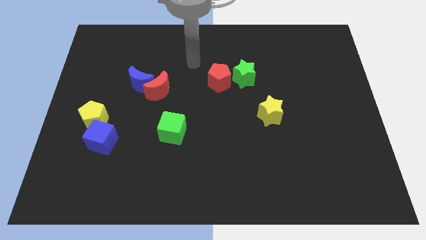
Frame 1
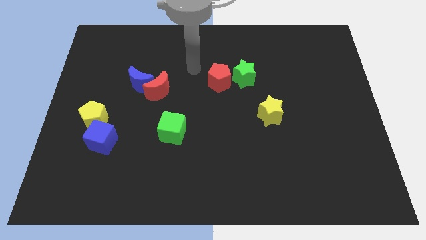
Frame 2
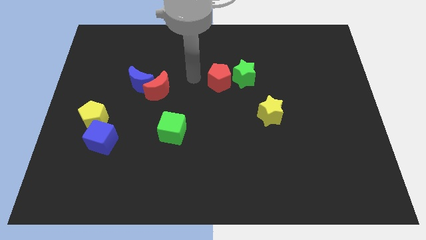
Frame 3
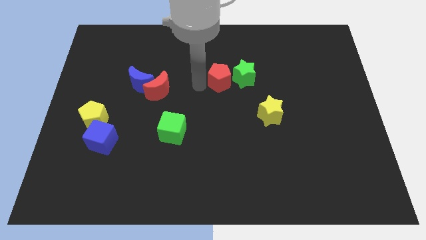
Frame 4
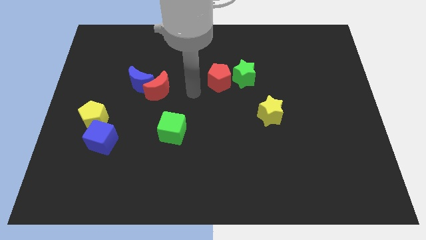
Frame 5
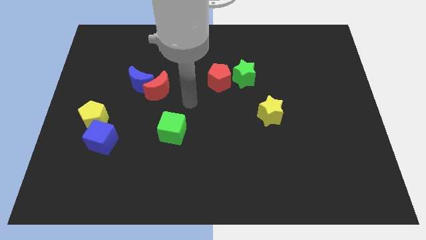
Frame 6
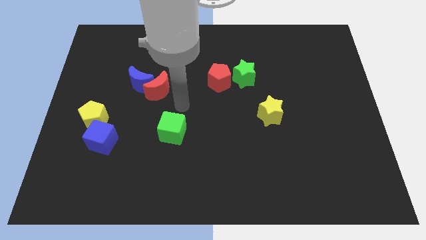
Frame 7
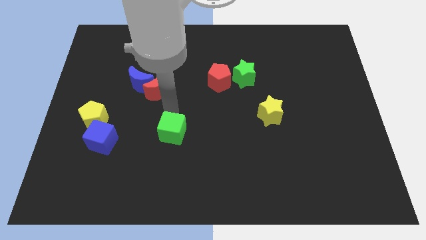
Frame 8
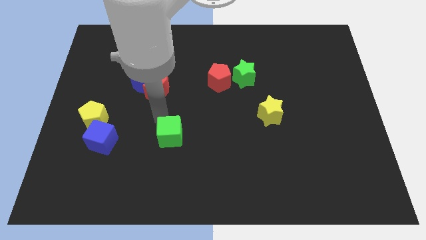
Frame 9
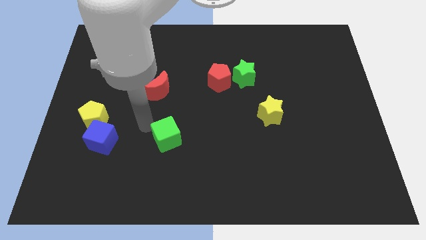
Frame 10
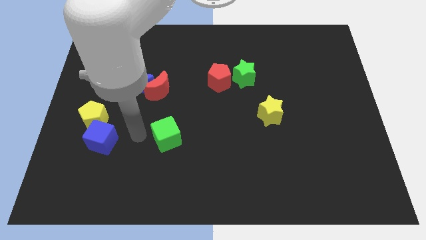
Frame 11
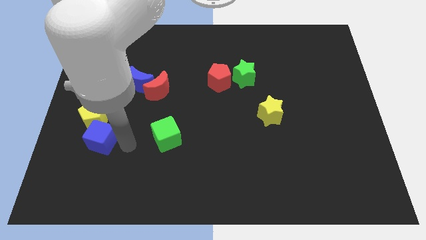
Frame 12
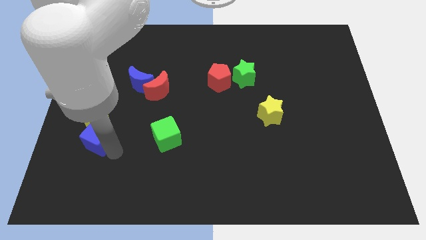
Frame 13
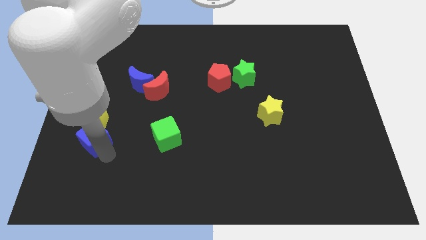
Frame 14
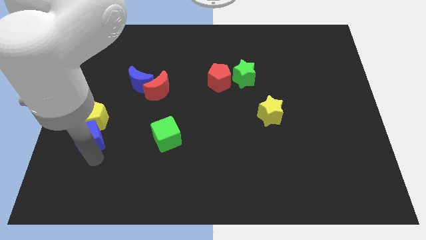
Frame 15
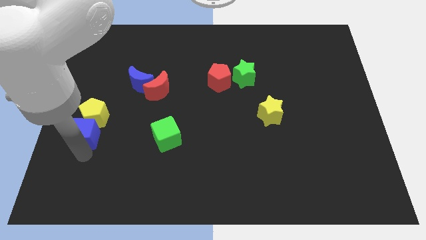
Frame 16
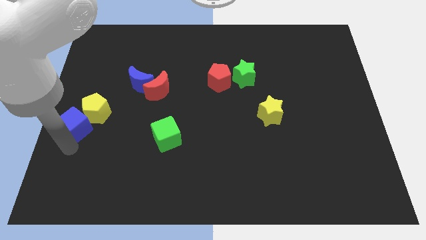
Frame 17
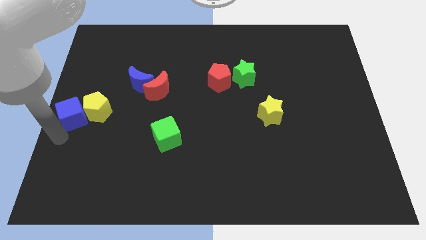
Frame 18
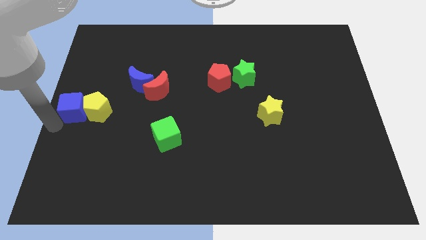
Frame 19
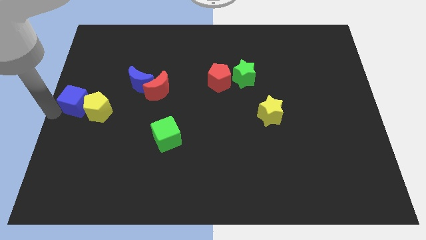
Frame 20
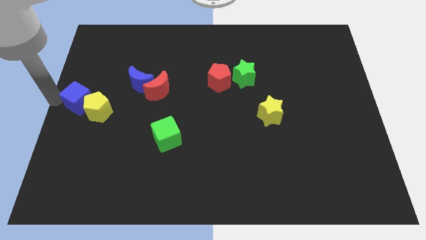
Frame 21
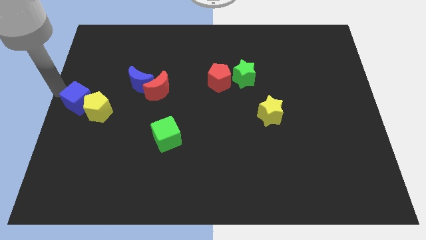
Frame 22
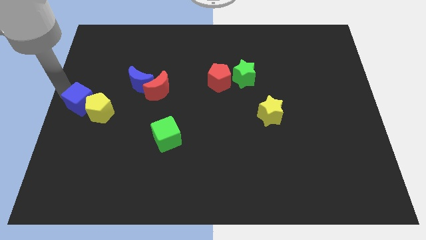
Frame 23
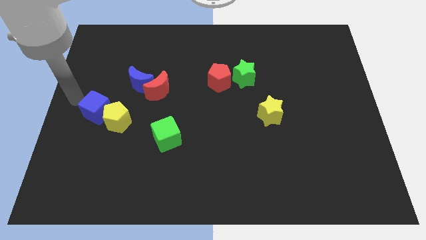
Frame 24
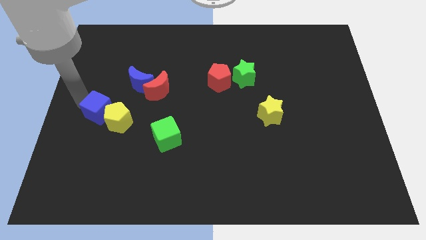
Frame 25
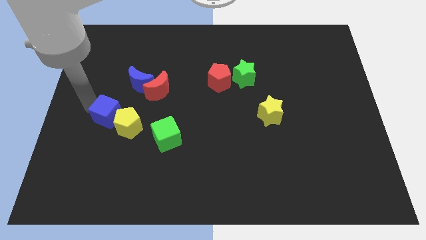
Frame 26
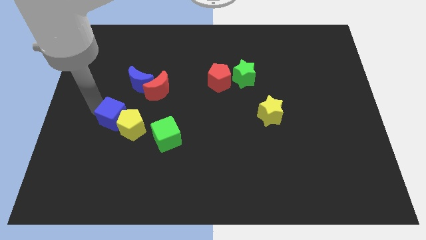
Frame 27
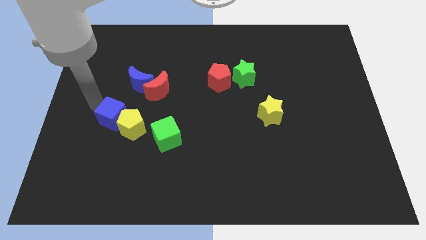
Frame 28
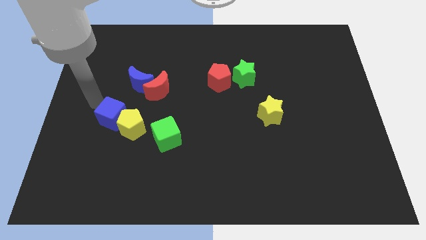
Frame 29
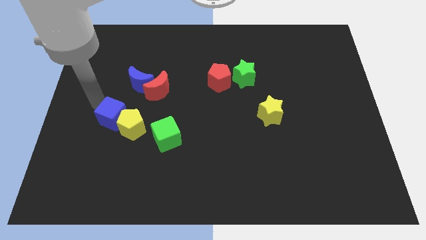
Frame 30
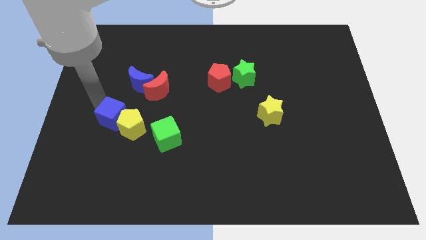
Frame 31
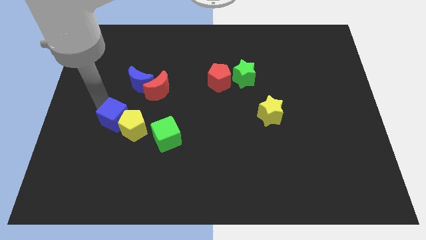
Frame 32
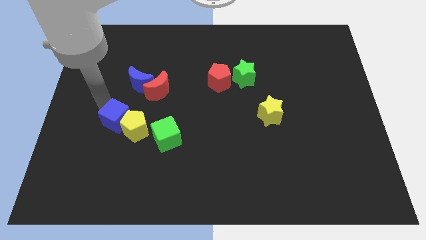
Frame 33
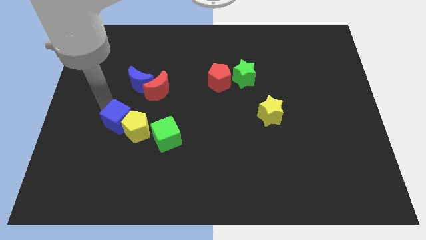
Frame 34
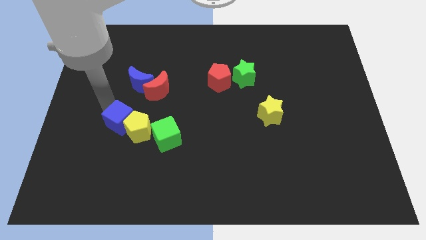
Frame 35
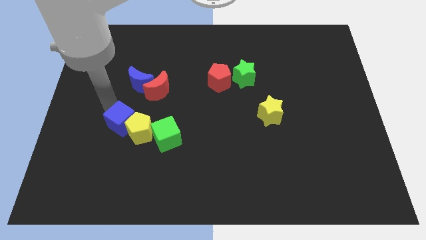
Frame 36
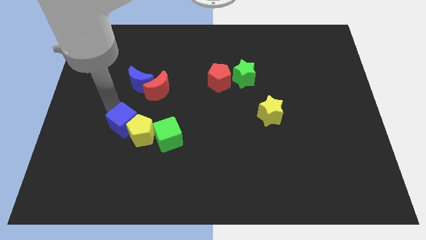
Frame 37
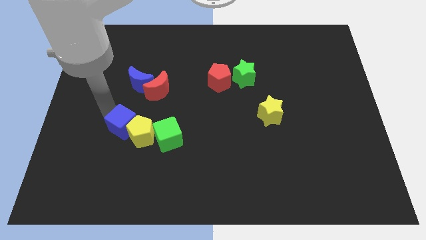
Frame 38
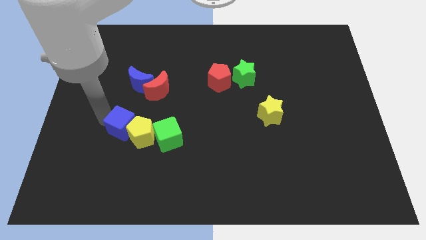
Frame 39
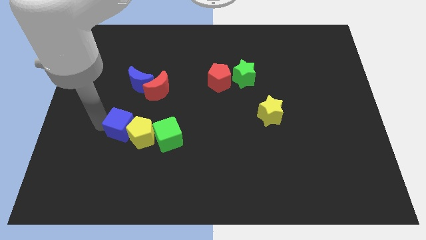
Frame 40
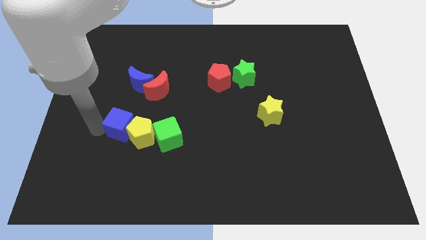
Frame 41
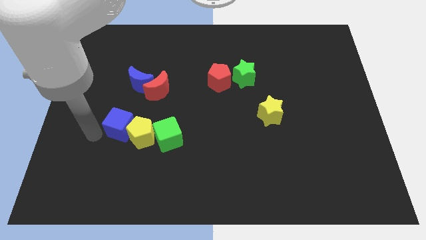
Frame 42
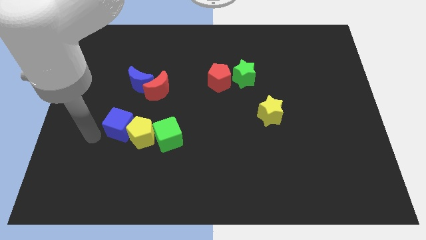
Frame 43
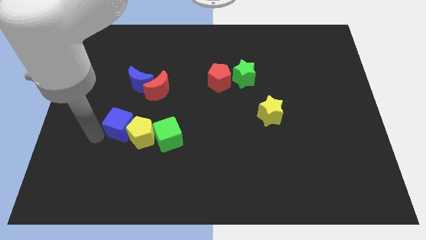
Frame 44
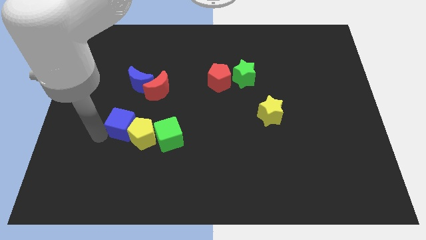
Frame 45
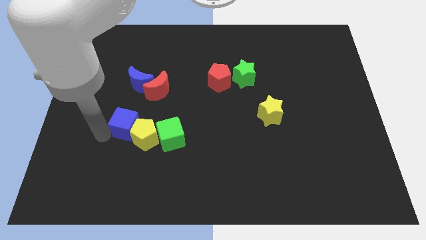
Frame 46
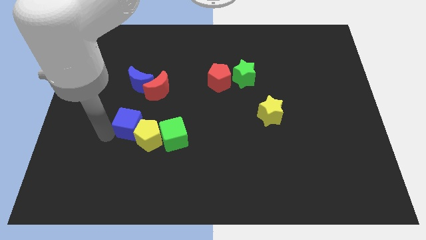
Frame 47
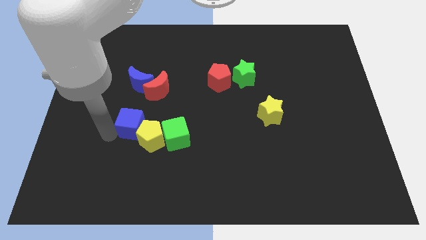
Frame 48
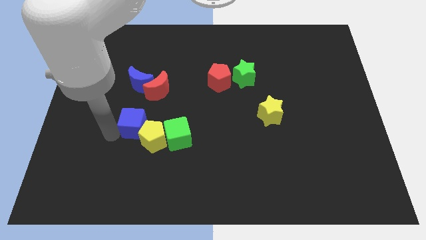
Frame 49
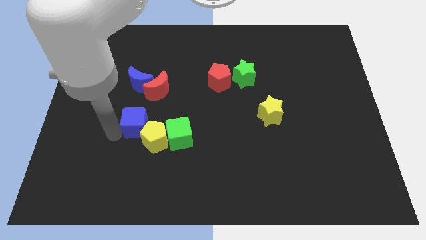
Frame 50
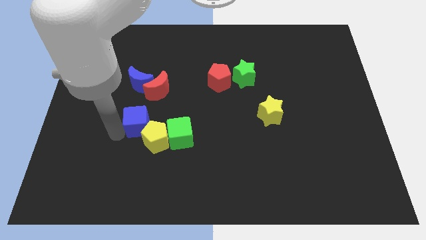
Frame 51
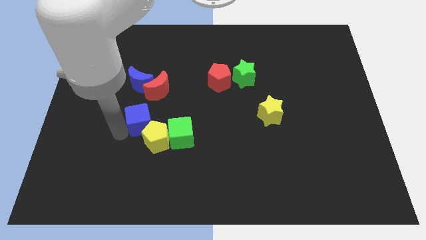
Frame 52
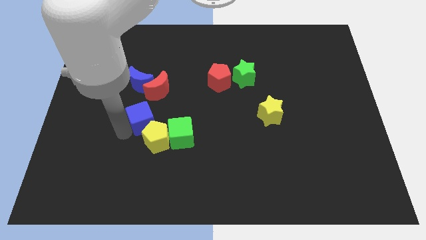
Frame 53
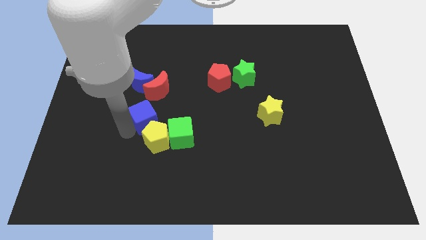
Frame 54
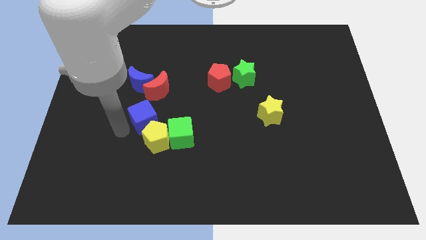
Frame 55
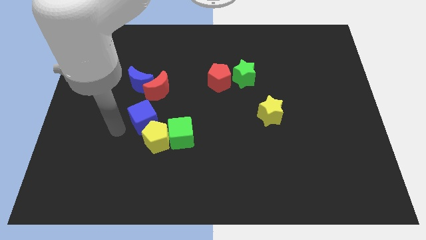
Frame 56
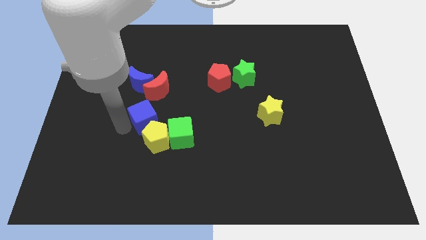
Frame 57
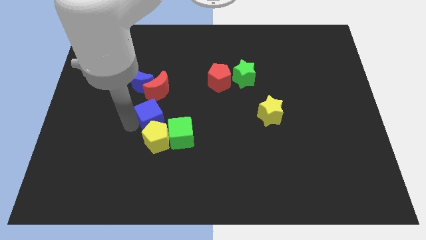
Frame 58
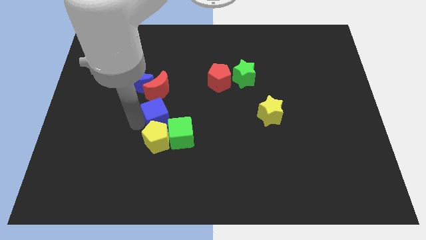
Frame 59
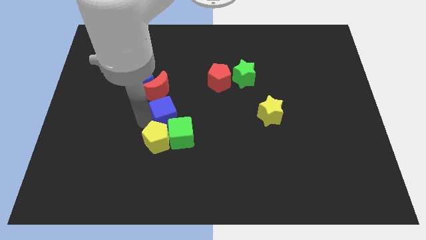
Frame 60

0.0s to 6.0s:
slide the blue cube to the bottom right of the red moon

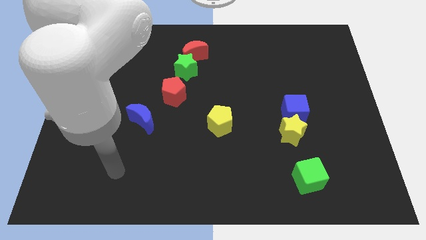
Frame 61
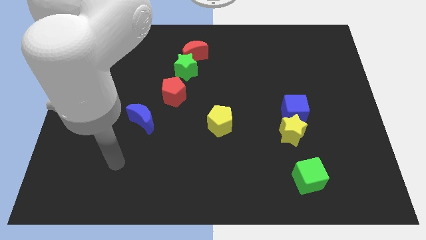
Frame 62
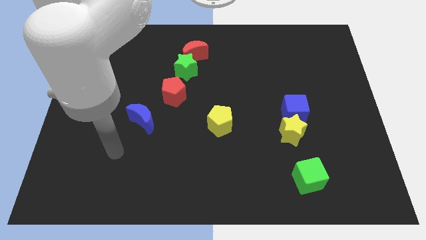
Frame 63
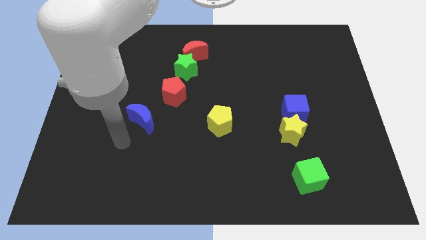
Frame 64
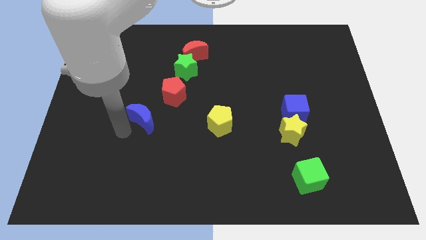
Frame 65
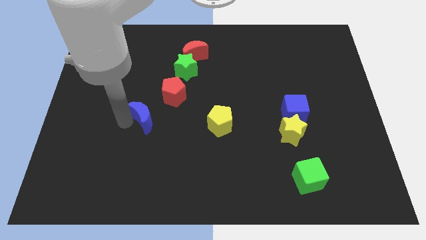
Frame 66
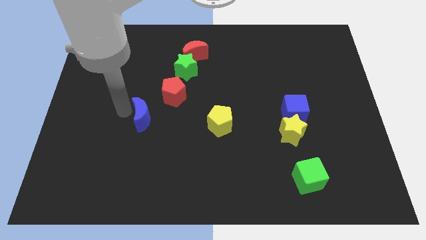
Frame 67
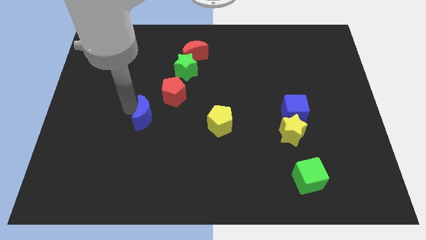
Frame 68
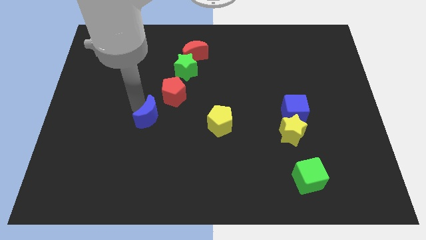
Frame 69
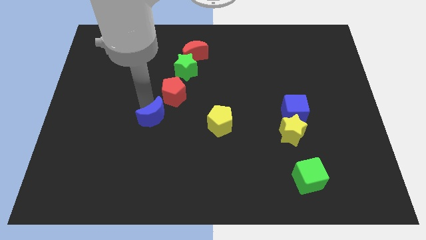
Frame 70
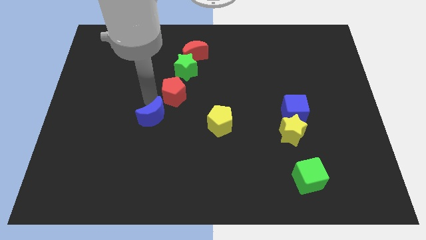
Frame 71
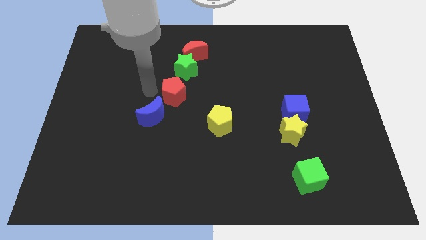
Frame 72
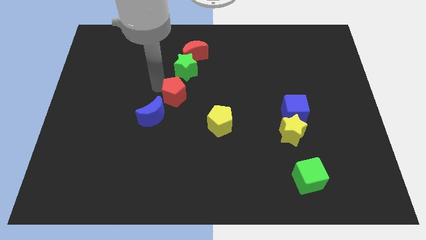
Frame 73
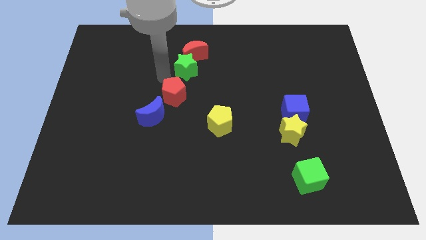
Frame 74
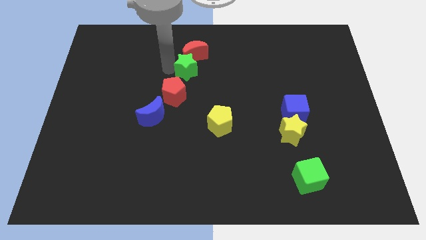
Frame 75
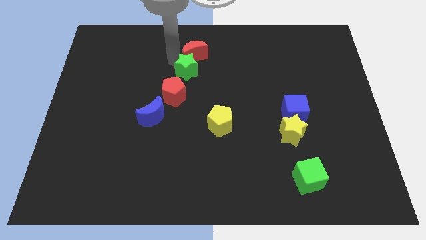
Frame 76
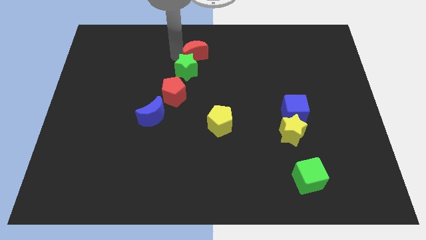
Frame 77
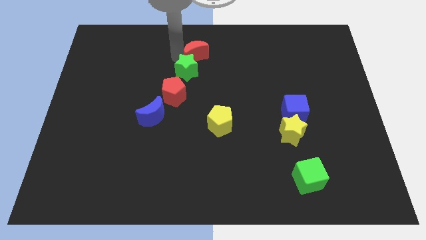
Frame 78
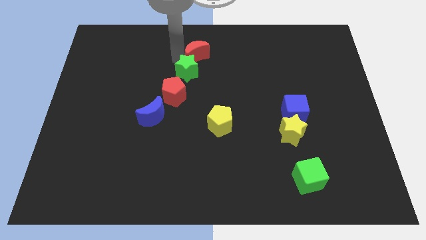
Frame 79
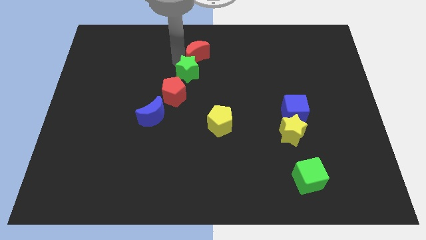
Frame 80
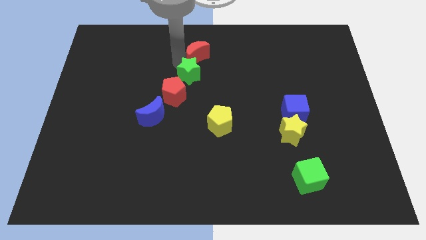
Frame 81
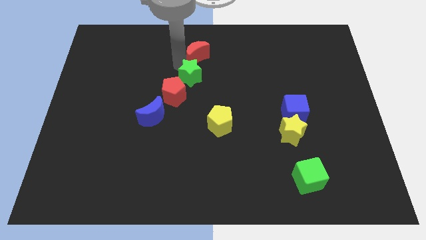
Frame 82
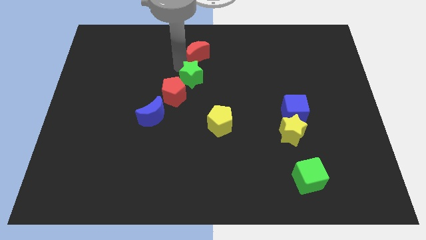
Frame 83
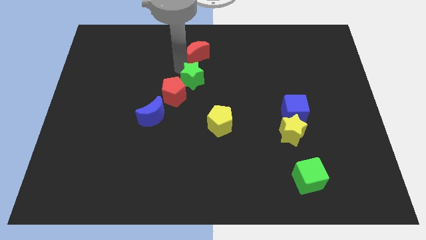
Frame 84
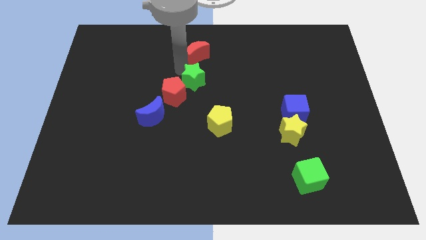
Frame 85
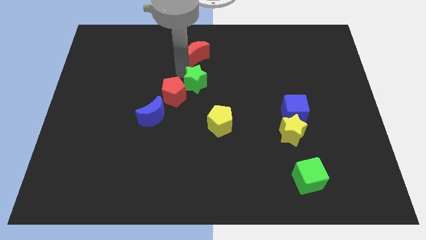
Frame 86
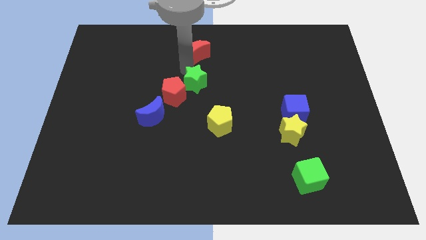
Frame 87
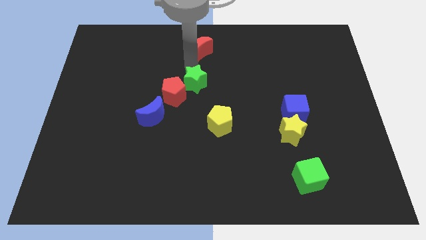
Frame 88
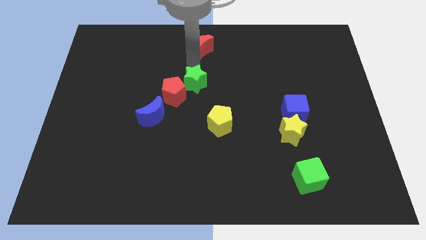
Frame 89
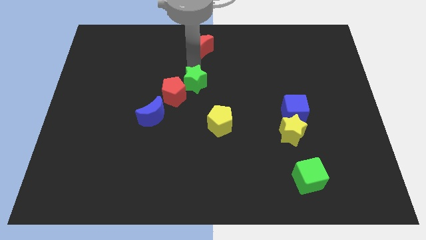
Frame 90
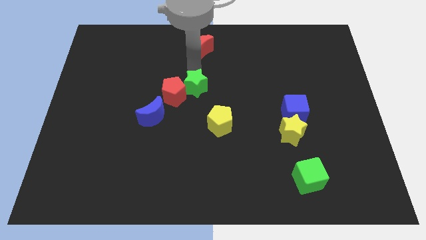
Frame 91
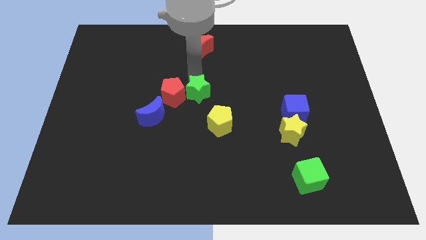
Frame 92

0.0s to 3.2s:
put the green star to the top left side of the yellow pentagon
